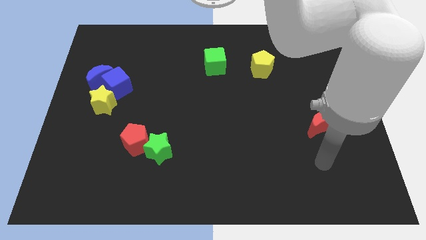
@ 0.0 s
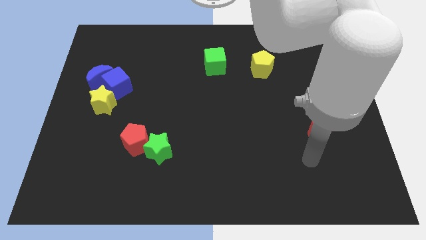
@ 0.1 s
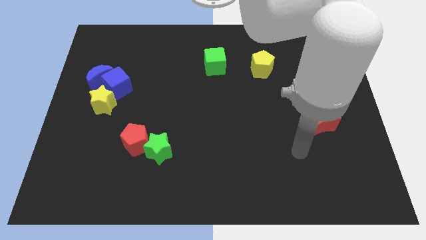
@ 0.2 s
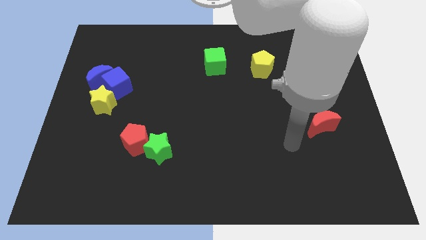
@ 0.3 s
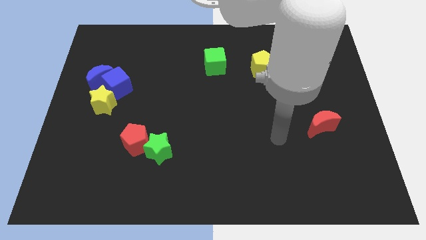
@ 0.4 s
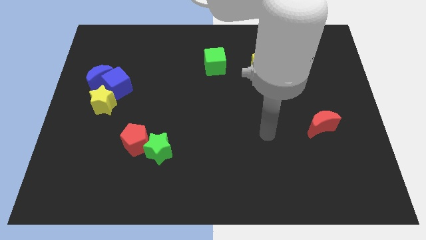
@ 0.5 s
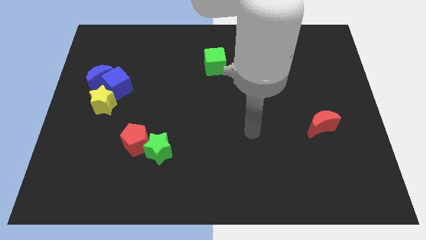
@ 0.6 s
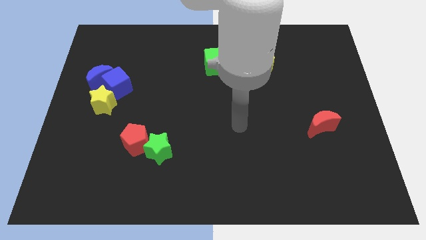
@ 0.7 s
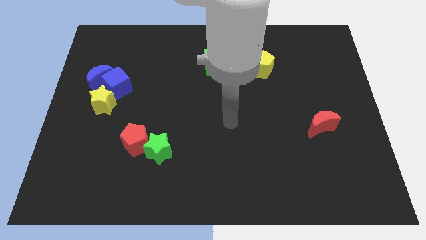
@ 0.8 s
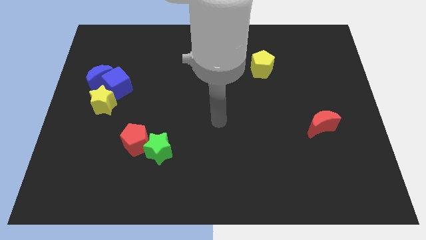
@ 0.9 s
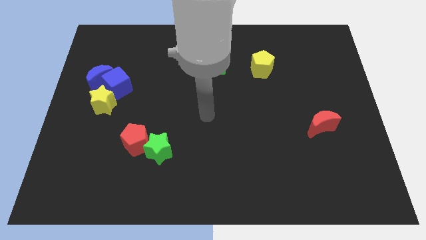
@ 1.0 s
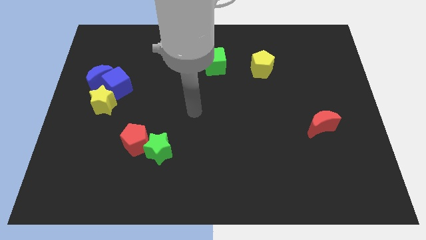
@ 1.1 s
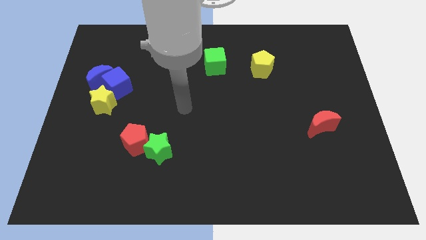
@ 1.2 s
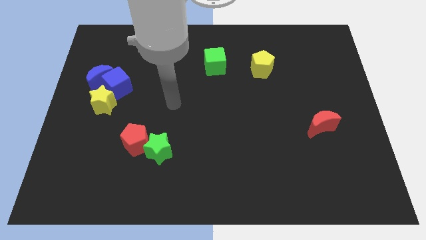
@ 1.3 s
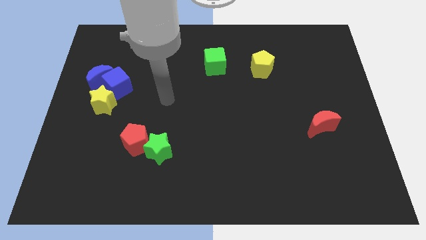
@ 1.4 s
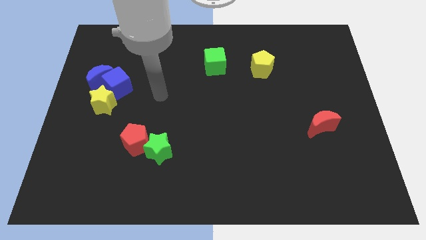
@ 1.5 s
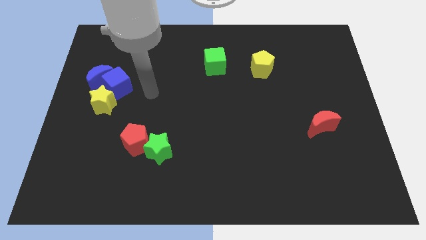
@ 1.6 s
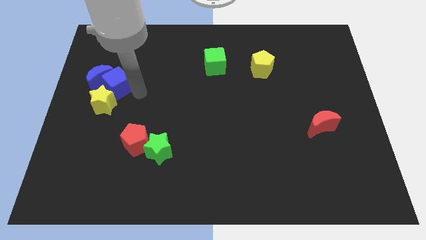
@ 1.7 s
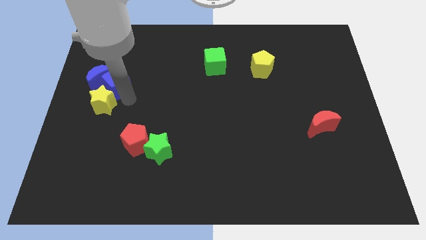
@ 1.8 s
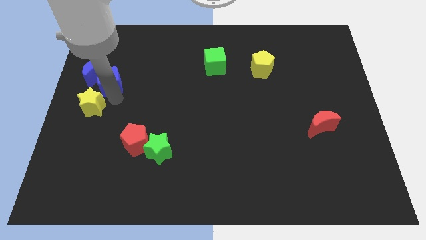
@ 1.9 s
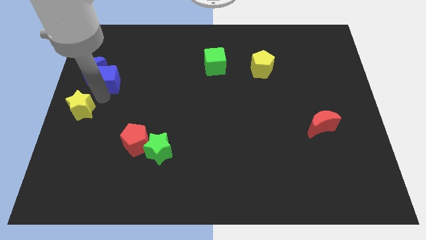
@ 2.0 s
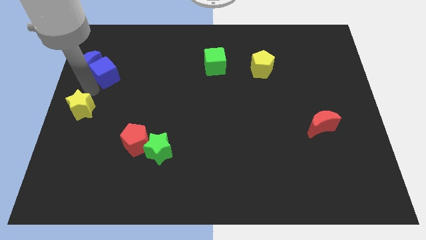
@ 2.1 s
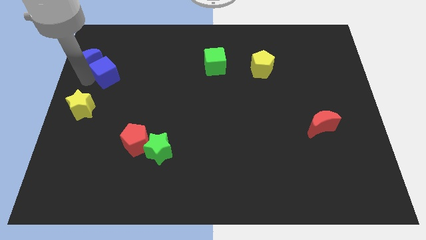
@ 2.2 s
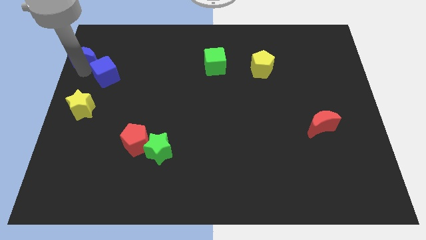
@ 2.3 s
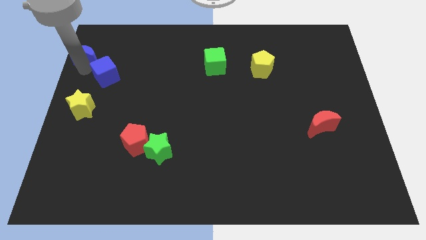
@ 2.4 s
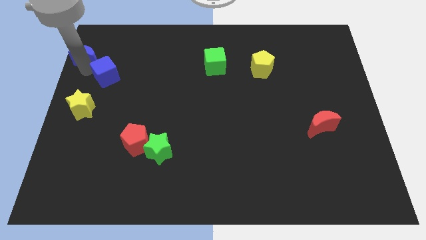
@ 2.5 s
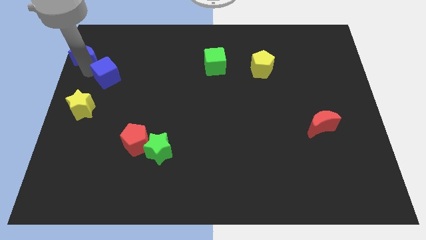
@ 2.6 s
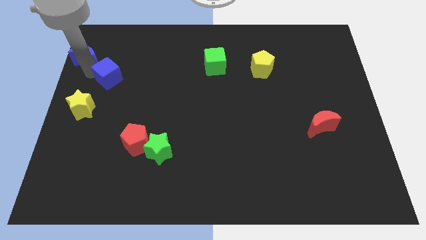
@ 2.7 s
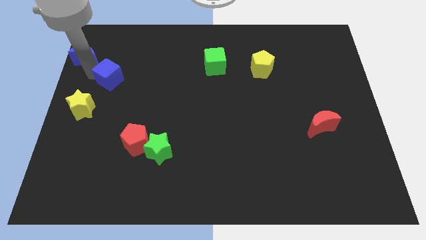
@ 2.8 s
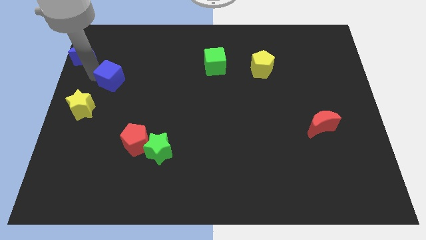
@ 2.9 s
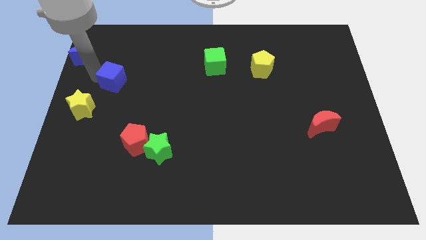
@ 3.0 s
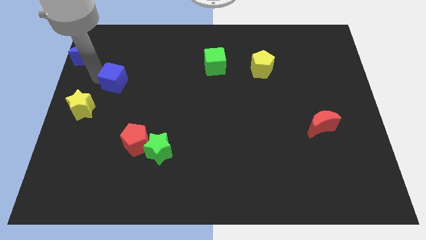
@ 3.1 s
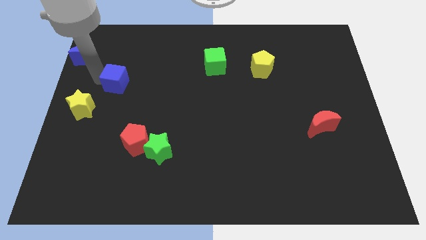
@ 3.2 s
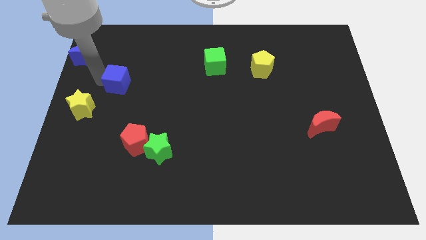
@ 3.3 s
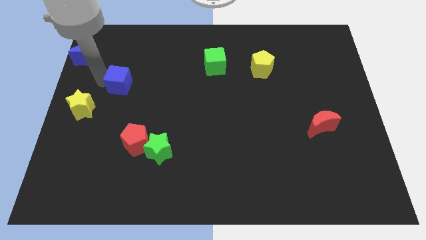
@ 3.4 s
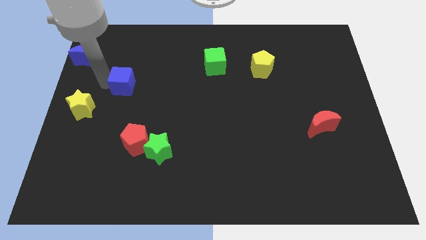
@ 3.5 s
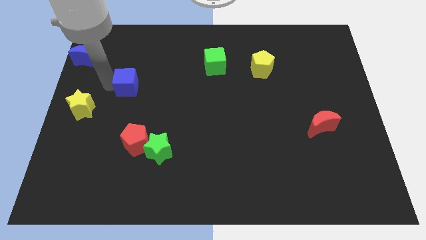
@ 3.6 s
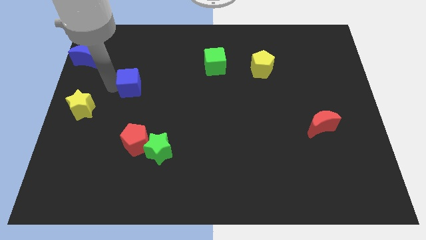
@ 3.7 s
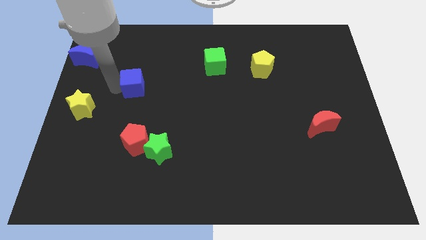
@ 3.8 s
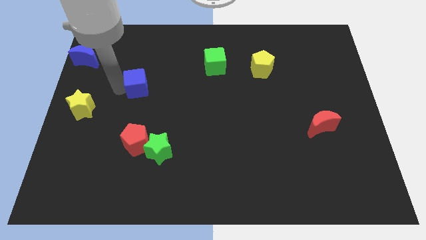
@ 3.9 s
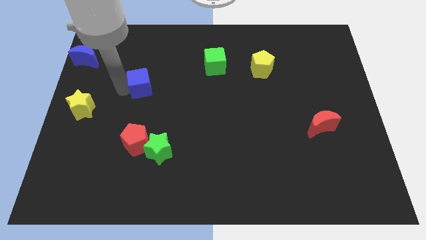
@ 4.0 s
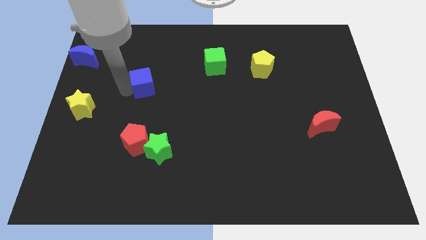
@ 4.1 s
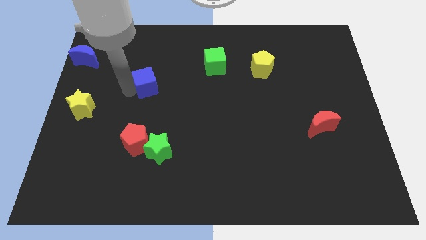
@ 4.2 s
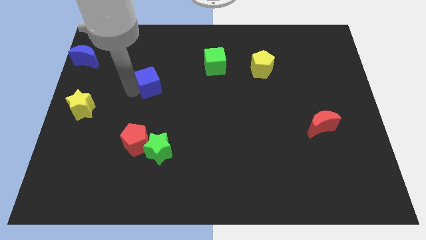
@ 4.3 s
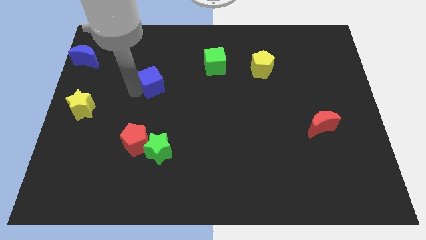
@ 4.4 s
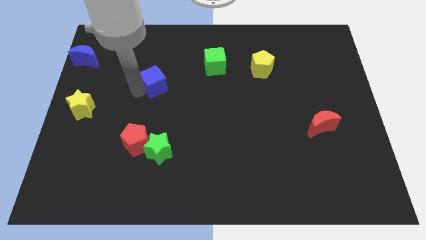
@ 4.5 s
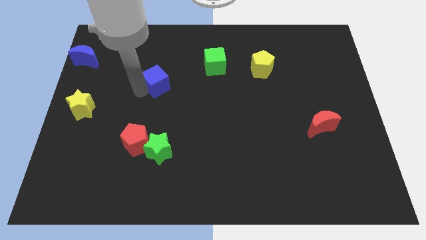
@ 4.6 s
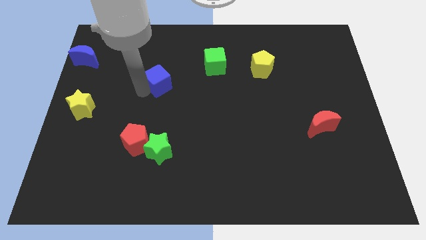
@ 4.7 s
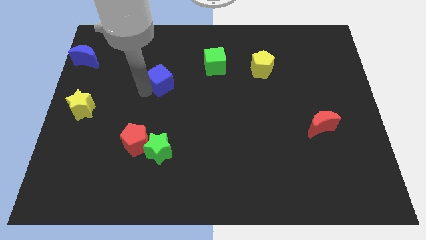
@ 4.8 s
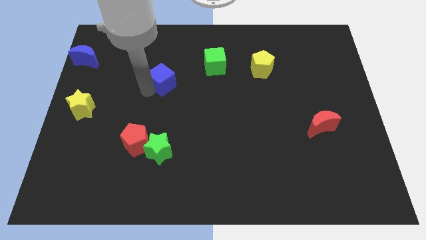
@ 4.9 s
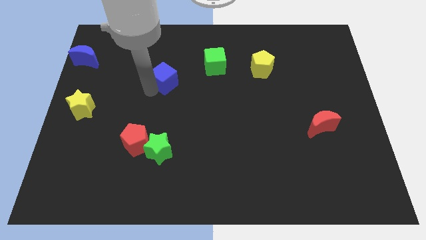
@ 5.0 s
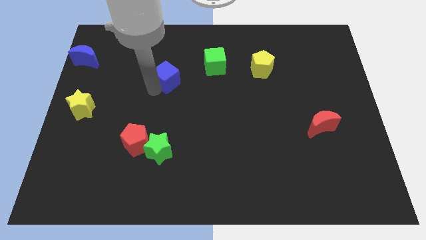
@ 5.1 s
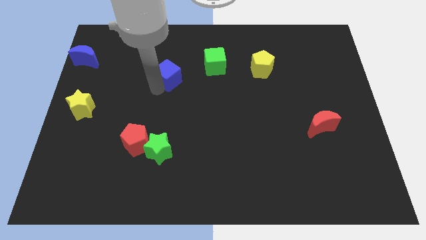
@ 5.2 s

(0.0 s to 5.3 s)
put the blue cube just left of the green cube

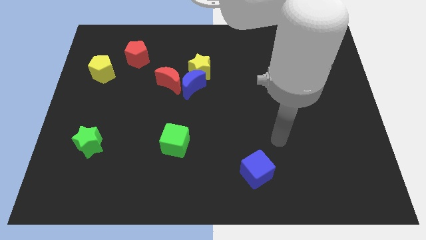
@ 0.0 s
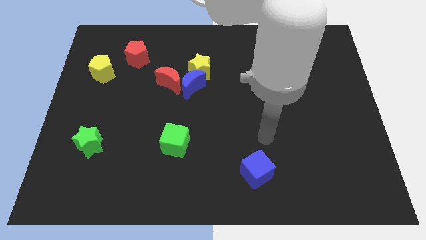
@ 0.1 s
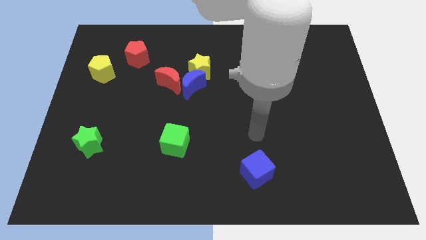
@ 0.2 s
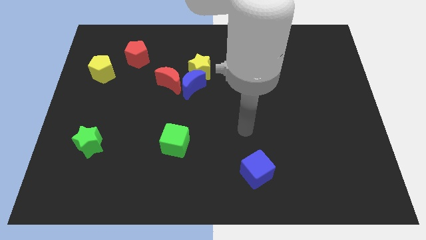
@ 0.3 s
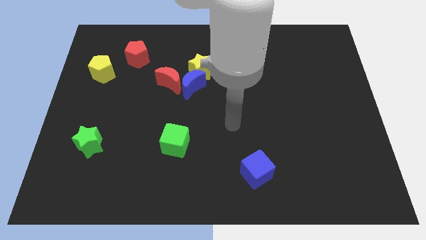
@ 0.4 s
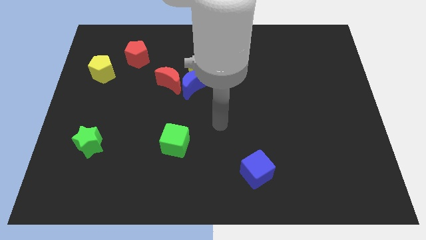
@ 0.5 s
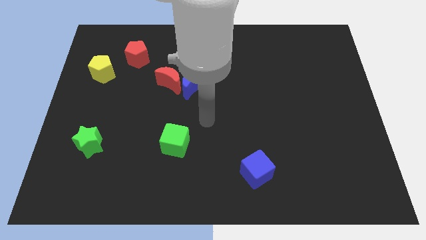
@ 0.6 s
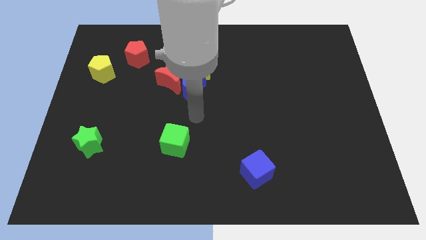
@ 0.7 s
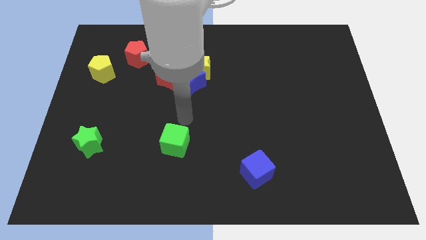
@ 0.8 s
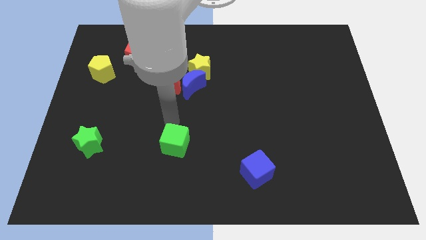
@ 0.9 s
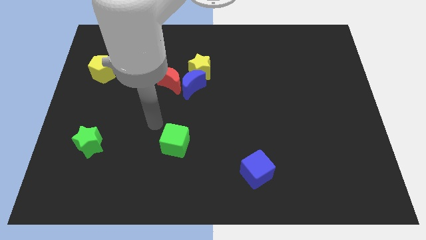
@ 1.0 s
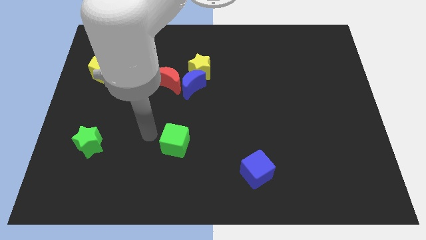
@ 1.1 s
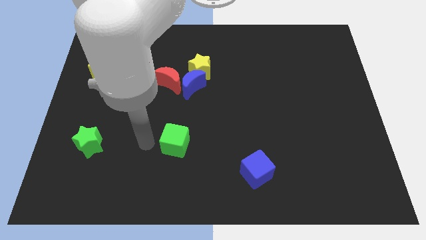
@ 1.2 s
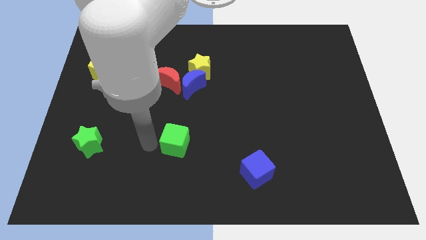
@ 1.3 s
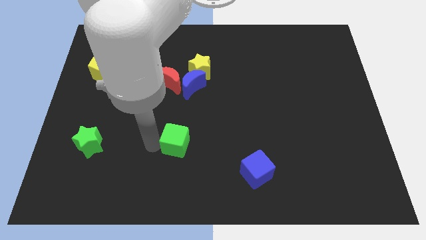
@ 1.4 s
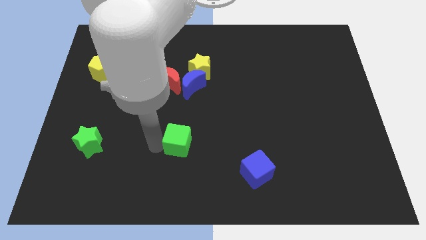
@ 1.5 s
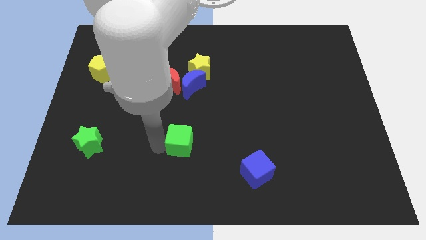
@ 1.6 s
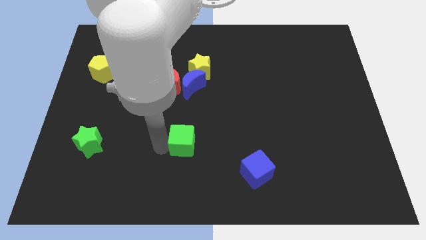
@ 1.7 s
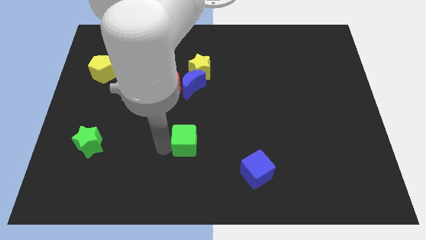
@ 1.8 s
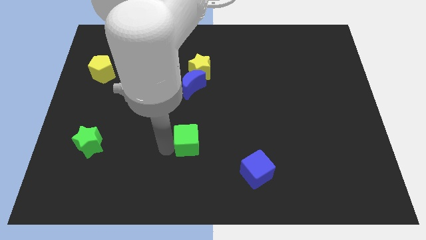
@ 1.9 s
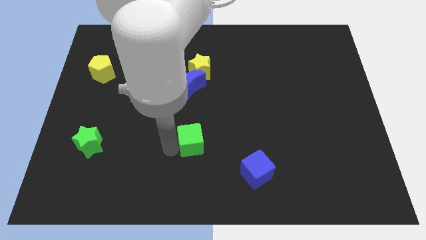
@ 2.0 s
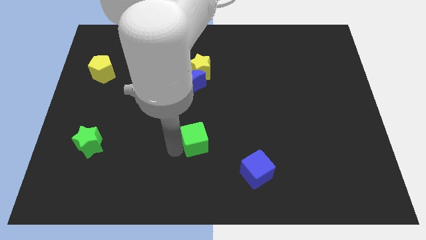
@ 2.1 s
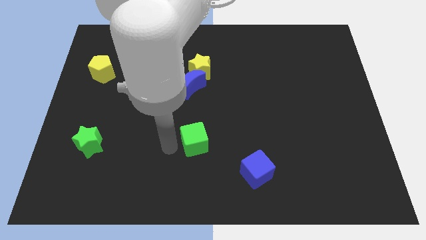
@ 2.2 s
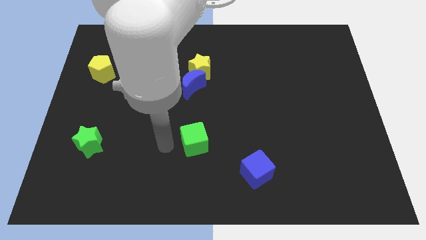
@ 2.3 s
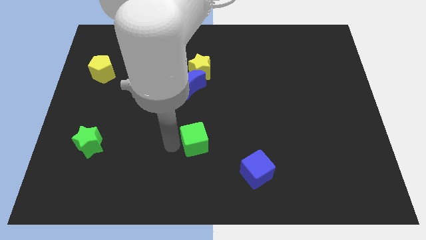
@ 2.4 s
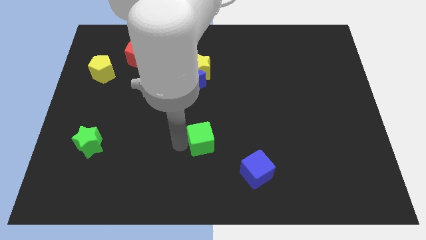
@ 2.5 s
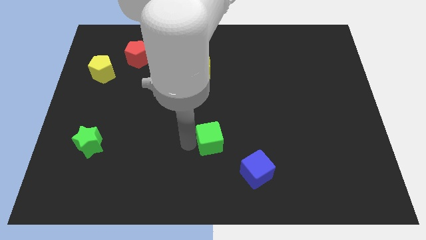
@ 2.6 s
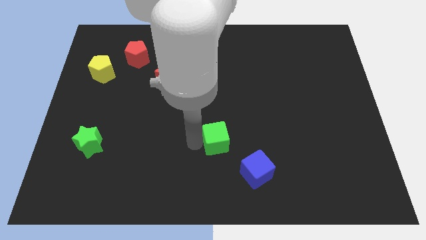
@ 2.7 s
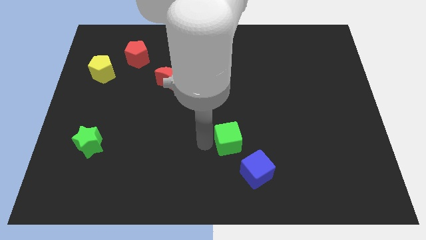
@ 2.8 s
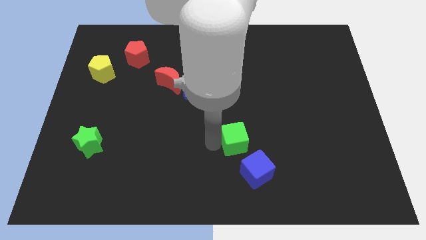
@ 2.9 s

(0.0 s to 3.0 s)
put the green cube to the top of the blue cube
